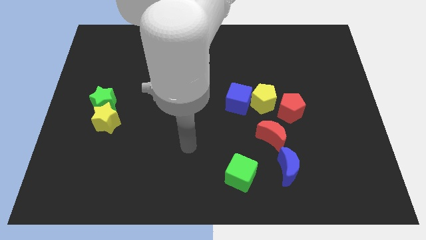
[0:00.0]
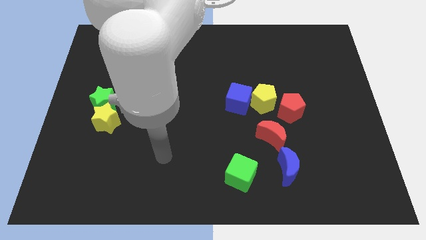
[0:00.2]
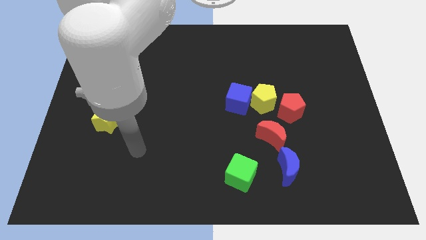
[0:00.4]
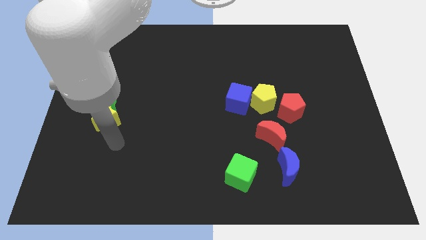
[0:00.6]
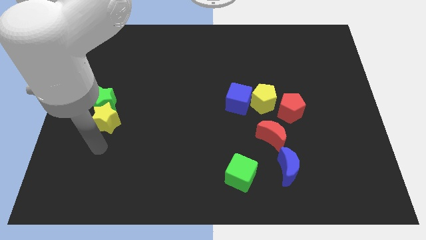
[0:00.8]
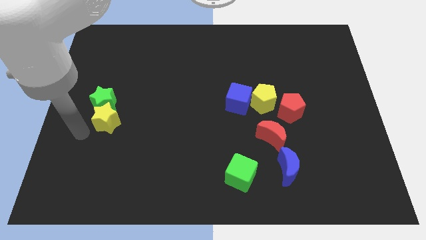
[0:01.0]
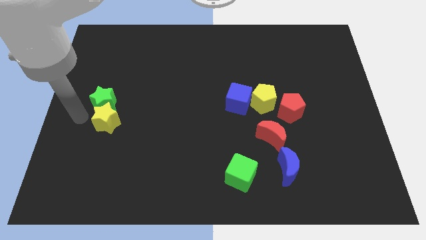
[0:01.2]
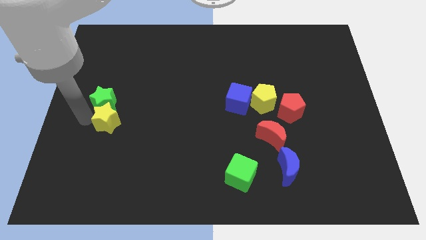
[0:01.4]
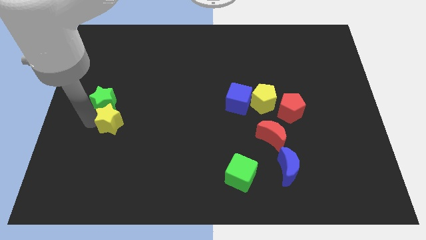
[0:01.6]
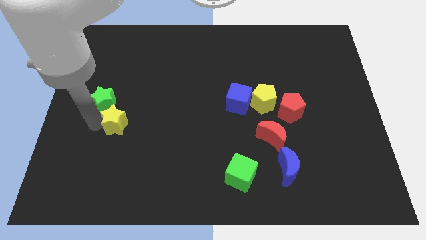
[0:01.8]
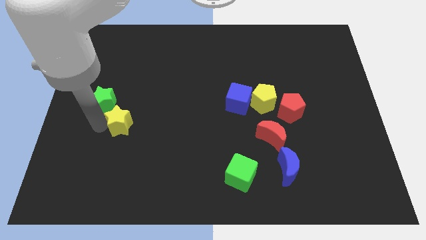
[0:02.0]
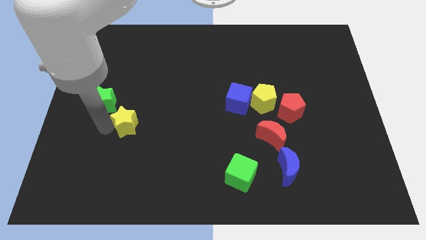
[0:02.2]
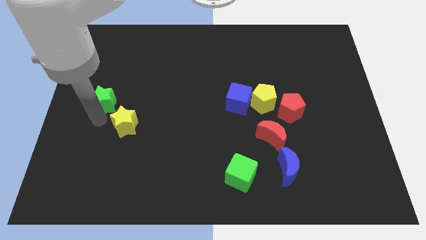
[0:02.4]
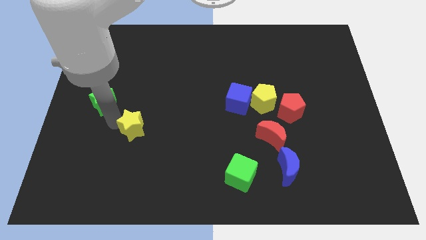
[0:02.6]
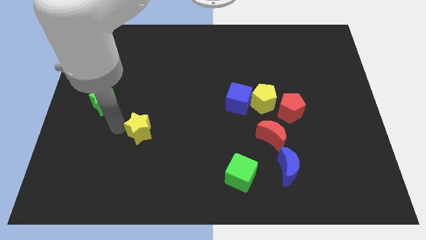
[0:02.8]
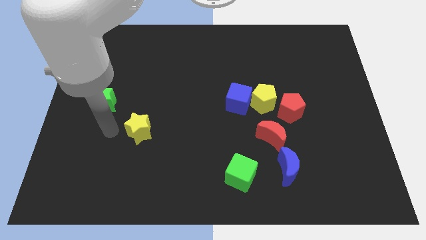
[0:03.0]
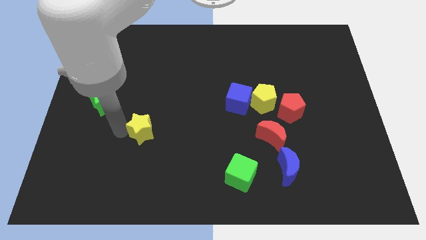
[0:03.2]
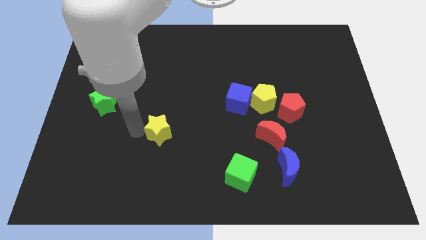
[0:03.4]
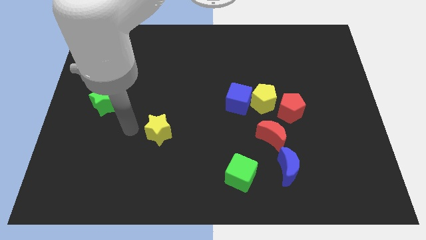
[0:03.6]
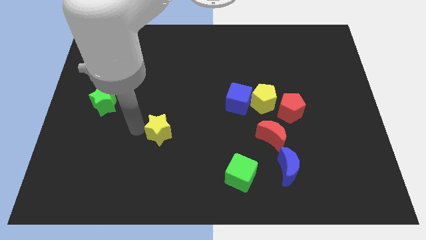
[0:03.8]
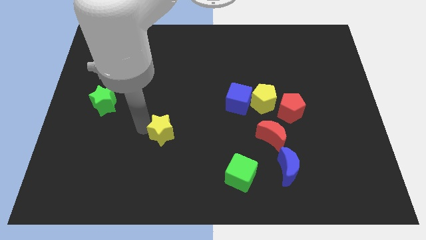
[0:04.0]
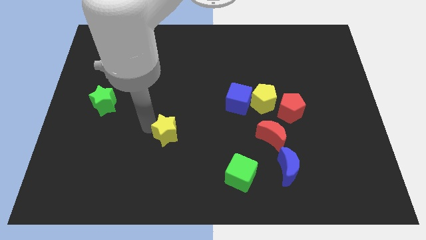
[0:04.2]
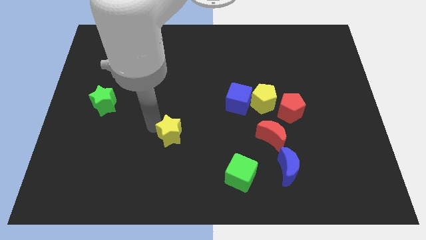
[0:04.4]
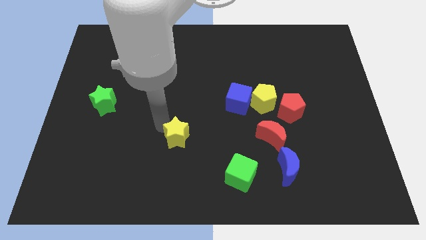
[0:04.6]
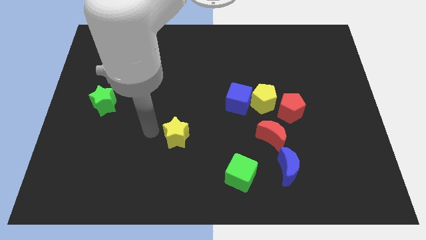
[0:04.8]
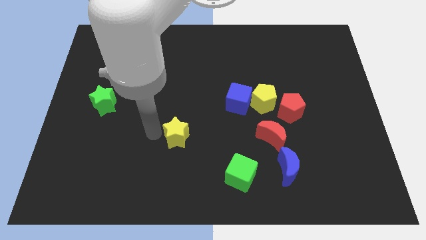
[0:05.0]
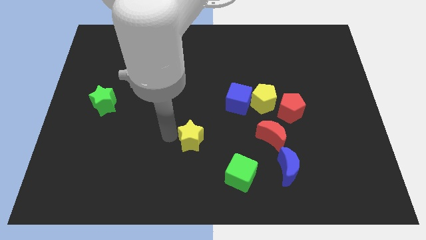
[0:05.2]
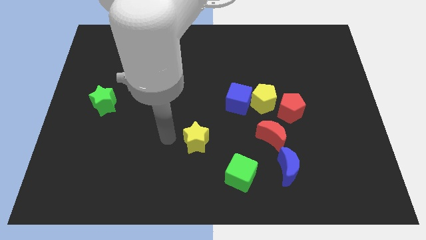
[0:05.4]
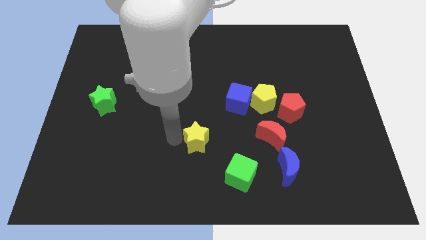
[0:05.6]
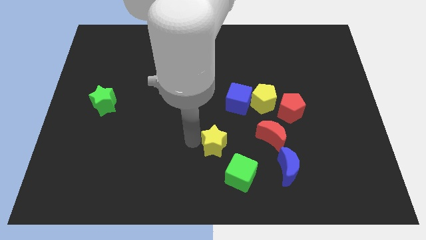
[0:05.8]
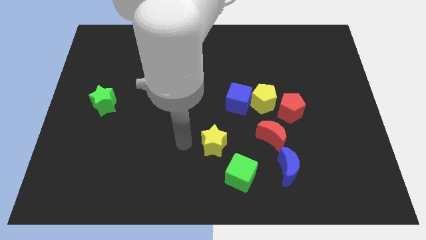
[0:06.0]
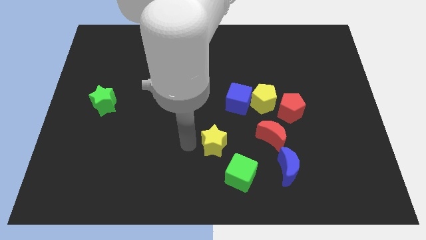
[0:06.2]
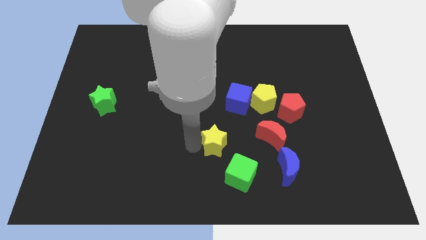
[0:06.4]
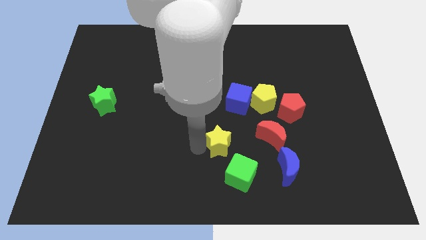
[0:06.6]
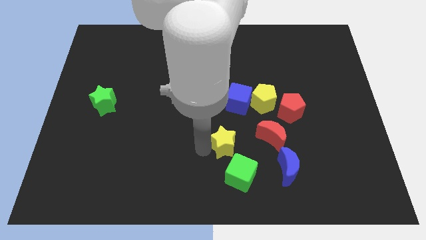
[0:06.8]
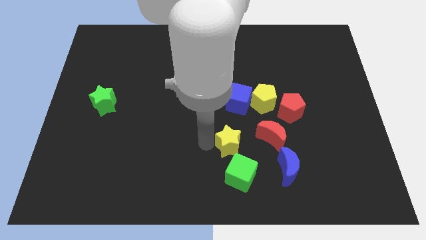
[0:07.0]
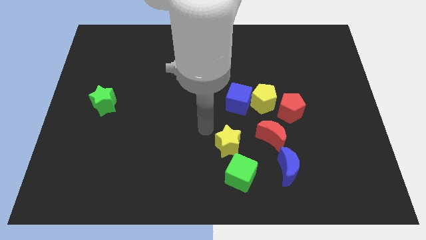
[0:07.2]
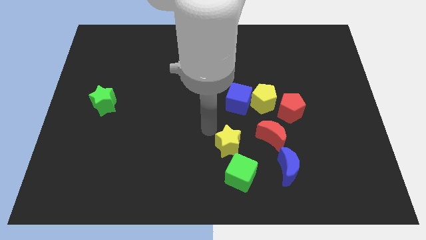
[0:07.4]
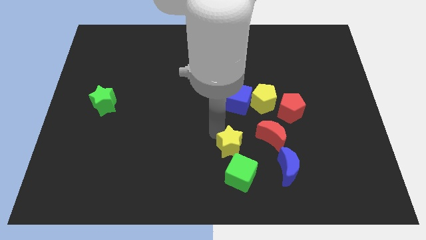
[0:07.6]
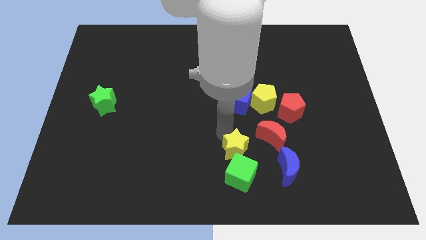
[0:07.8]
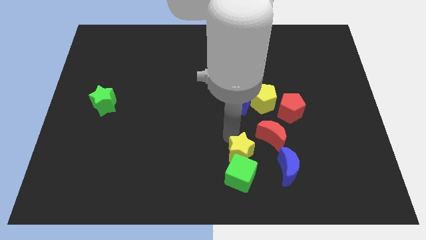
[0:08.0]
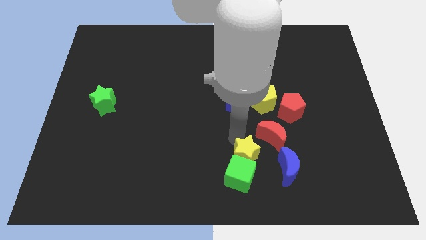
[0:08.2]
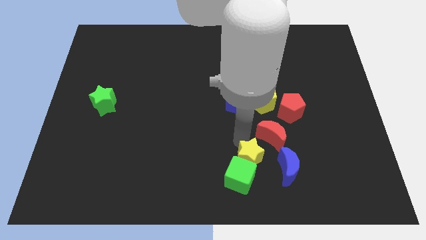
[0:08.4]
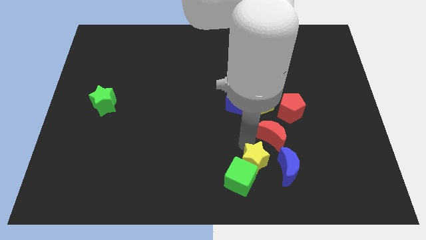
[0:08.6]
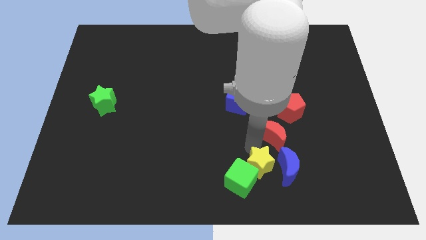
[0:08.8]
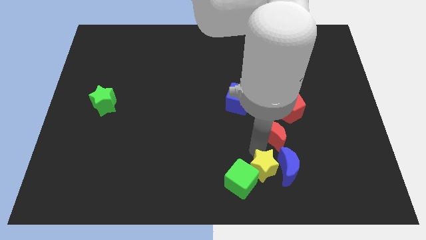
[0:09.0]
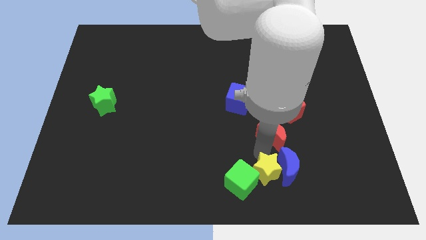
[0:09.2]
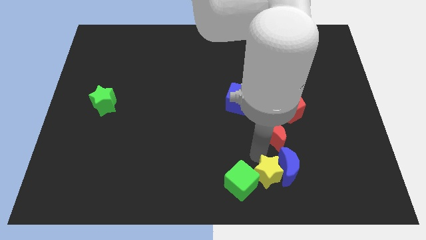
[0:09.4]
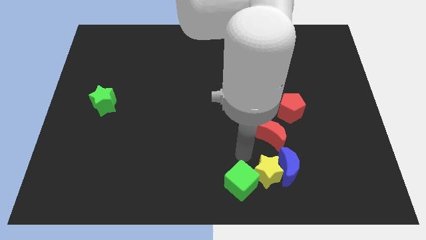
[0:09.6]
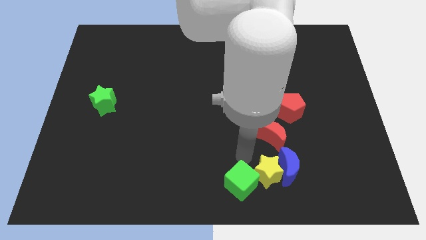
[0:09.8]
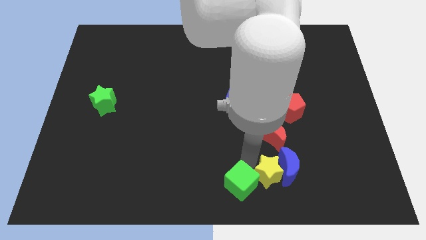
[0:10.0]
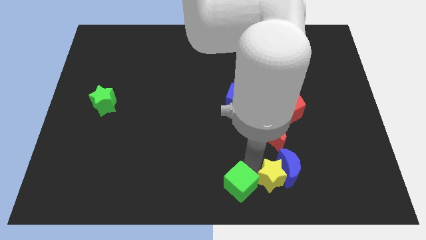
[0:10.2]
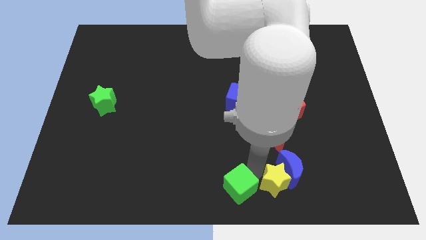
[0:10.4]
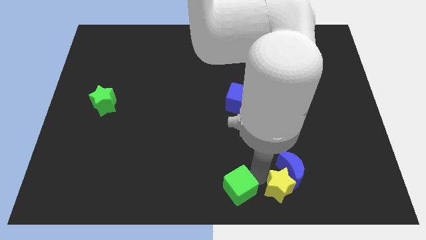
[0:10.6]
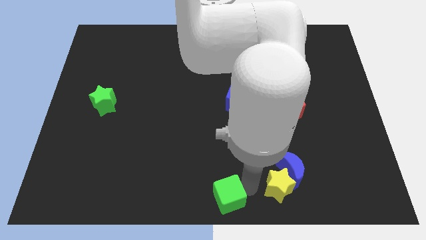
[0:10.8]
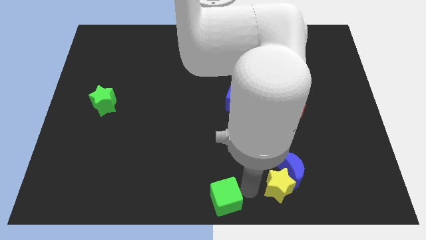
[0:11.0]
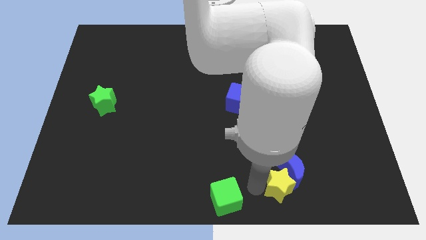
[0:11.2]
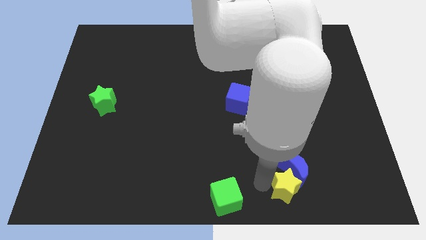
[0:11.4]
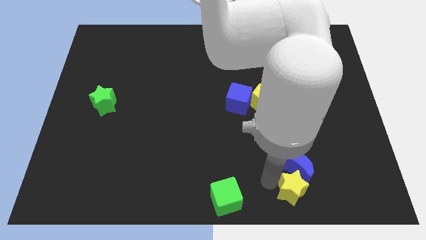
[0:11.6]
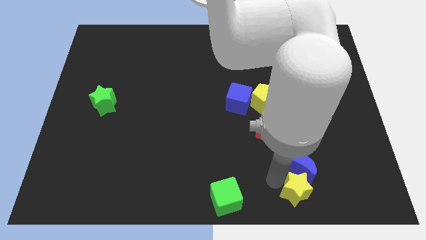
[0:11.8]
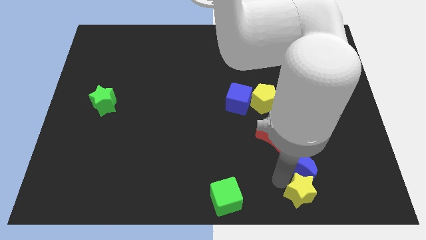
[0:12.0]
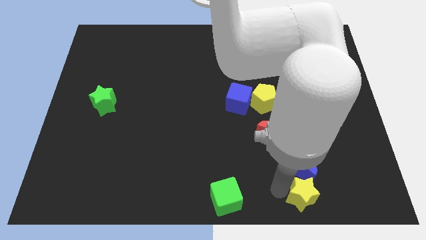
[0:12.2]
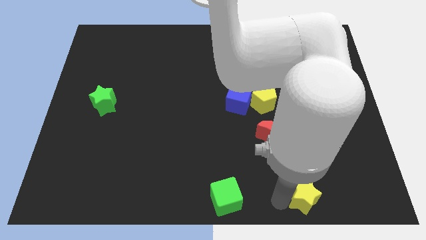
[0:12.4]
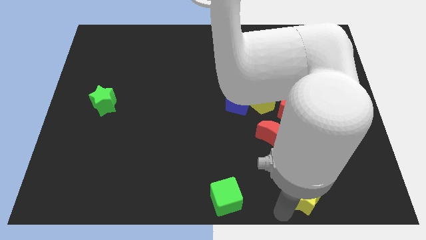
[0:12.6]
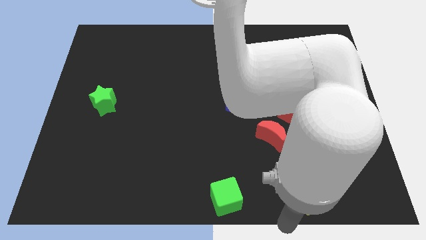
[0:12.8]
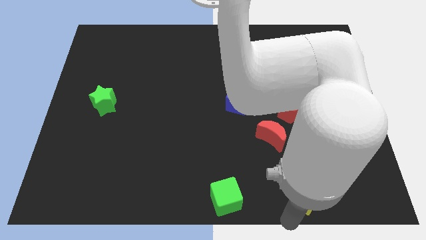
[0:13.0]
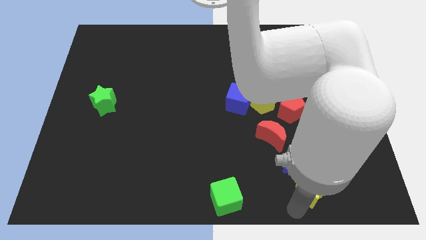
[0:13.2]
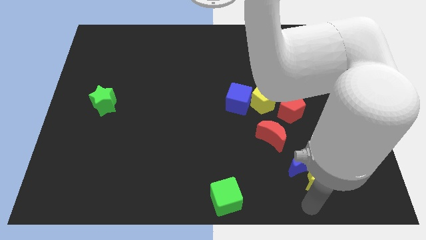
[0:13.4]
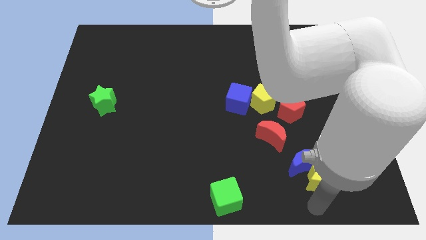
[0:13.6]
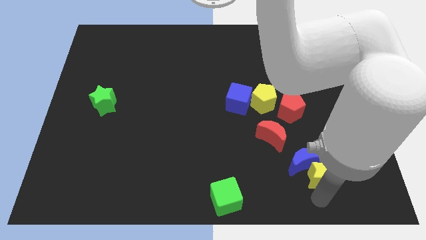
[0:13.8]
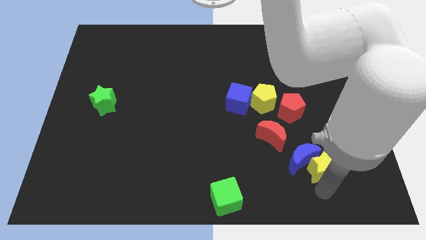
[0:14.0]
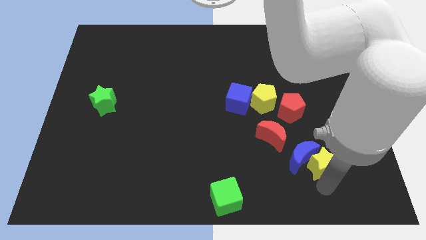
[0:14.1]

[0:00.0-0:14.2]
move the yellow star to the top right of the blue moon

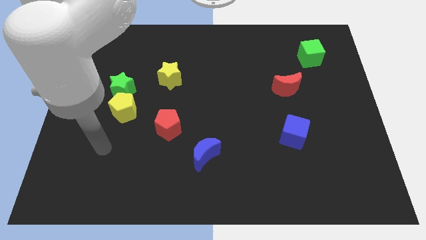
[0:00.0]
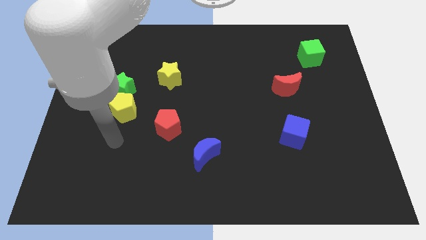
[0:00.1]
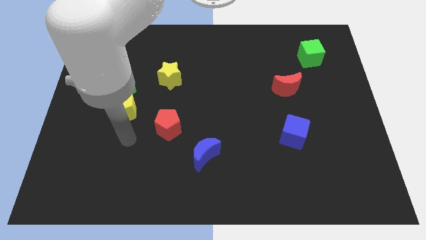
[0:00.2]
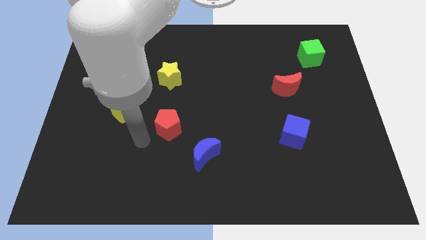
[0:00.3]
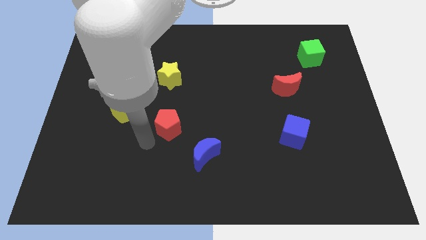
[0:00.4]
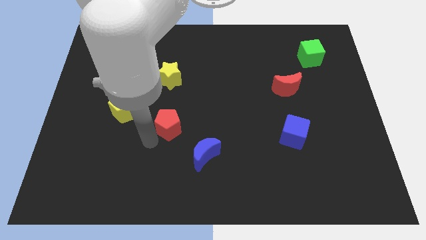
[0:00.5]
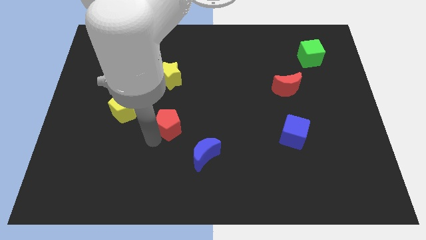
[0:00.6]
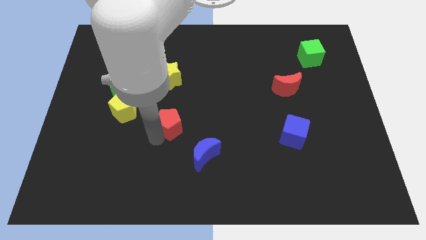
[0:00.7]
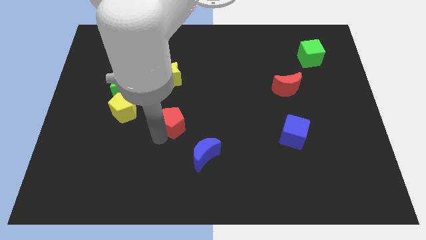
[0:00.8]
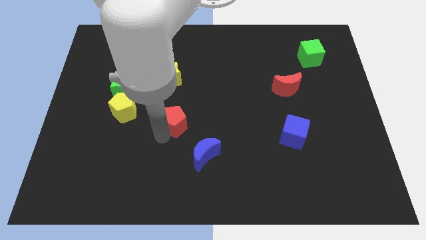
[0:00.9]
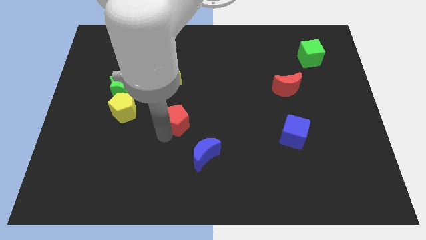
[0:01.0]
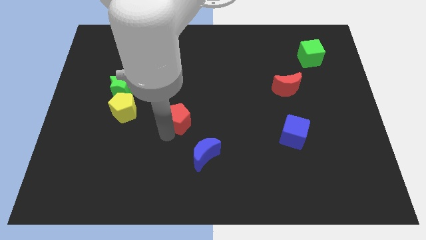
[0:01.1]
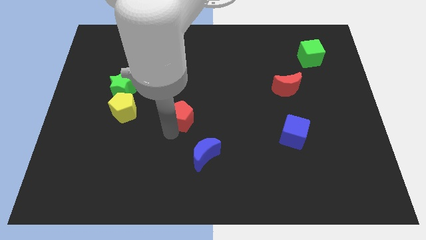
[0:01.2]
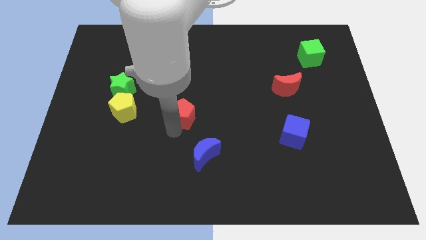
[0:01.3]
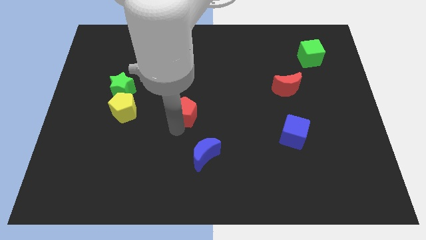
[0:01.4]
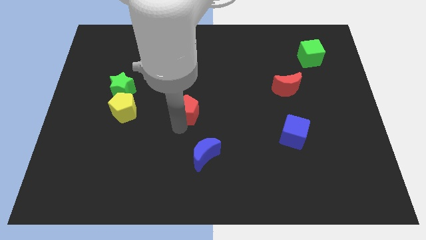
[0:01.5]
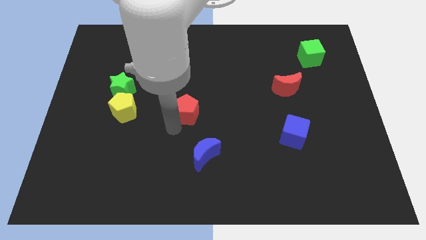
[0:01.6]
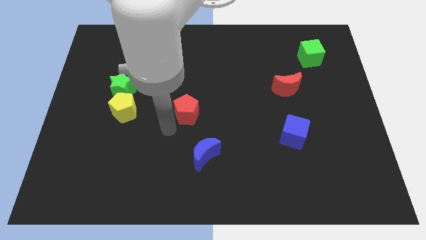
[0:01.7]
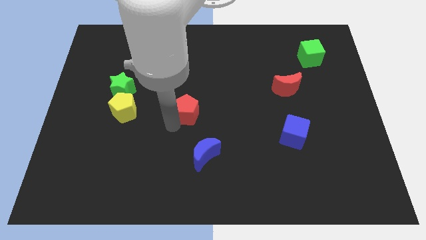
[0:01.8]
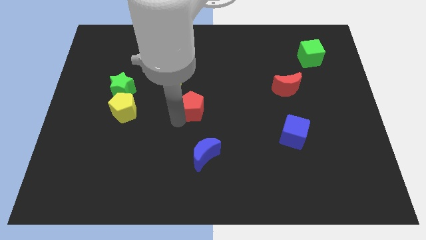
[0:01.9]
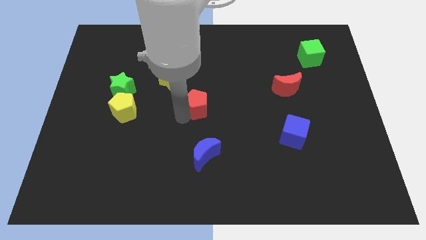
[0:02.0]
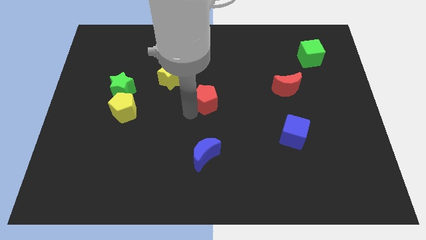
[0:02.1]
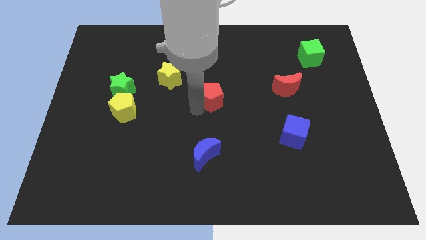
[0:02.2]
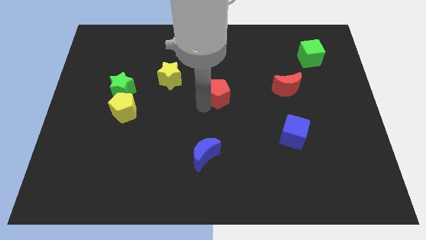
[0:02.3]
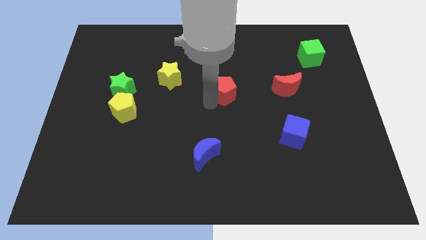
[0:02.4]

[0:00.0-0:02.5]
slide the red pentagon to the right of the yellow star
